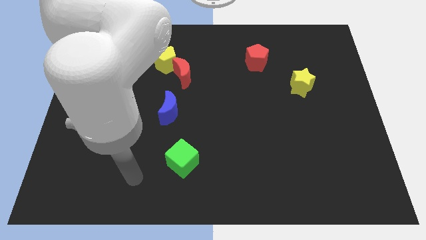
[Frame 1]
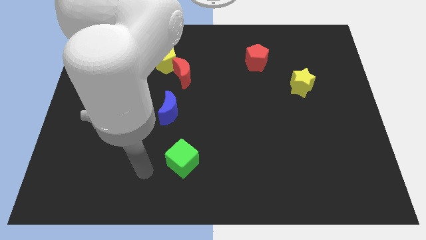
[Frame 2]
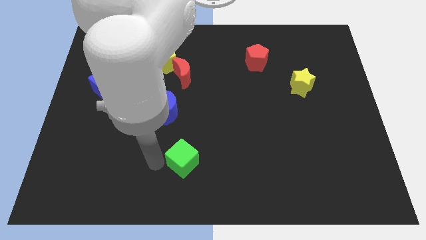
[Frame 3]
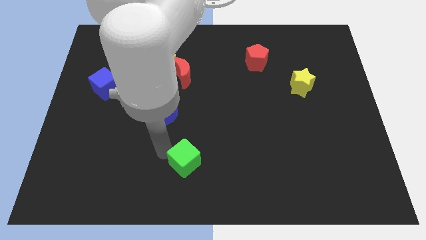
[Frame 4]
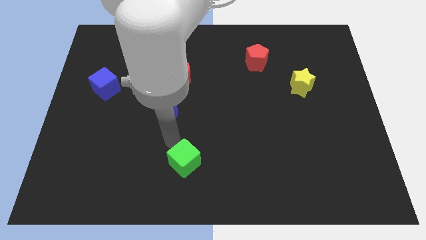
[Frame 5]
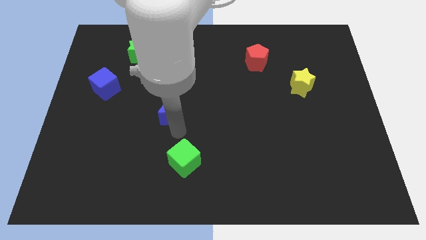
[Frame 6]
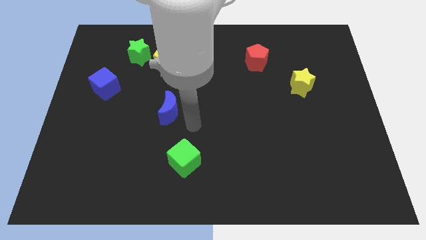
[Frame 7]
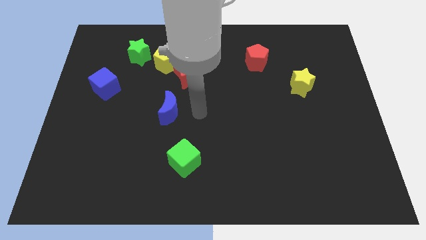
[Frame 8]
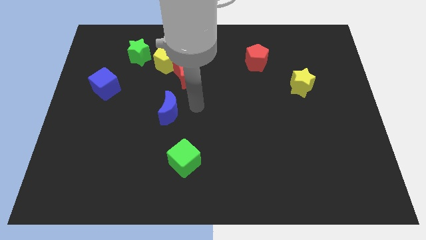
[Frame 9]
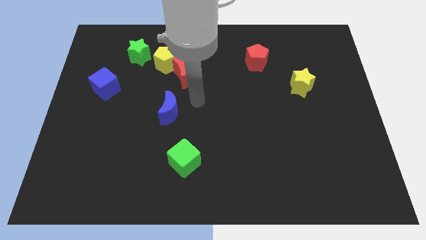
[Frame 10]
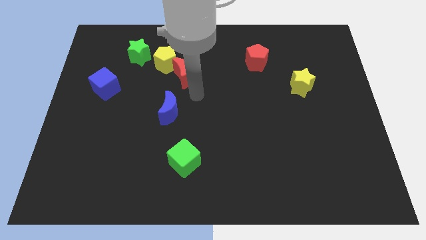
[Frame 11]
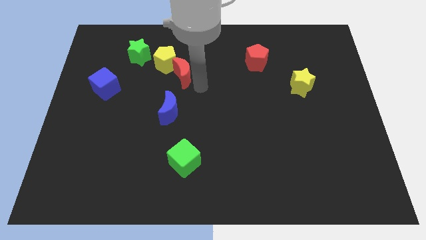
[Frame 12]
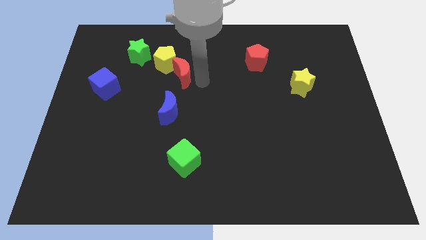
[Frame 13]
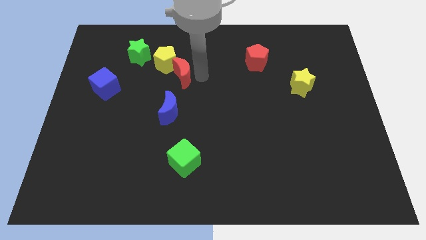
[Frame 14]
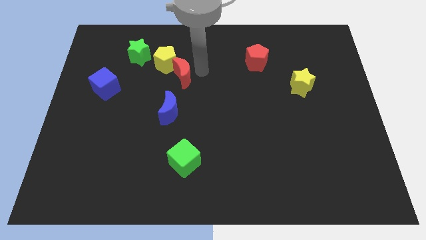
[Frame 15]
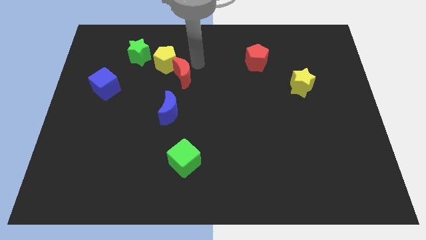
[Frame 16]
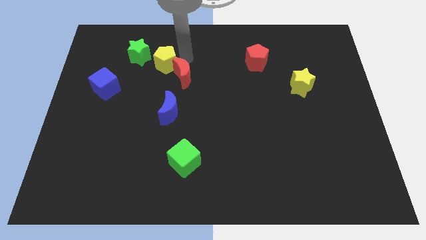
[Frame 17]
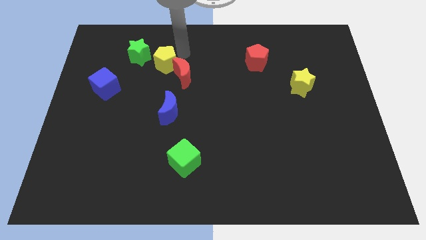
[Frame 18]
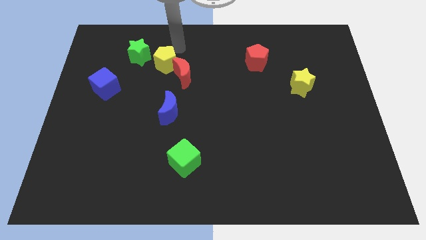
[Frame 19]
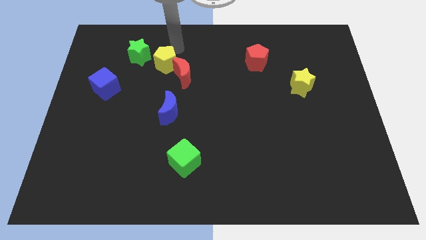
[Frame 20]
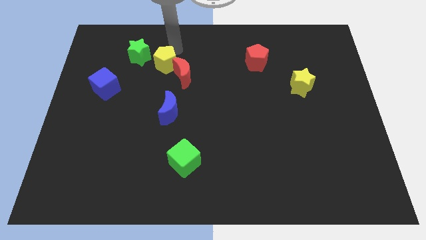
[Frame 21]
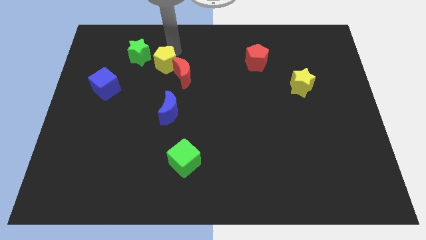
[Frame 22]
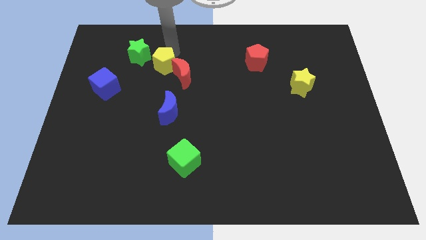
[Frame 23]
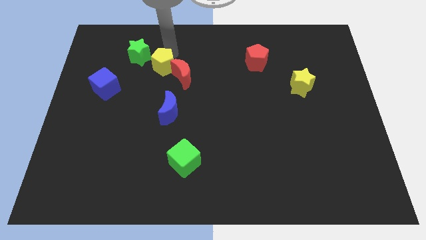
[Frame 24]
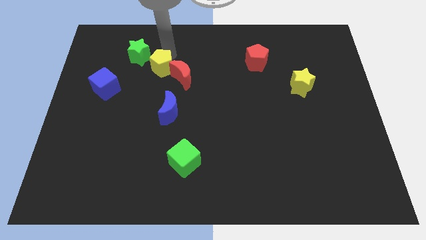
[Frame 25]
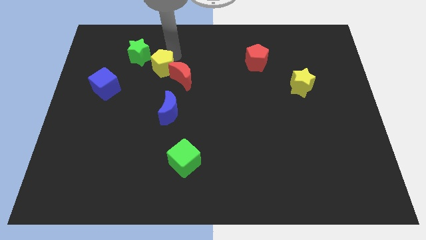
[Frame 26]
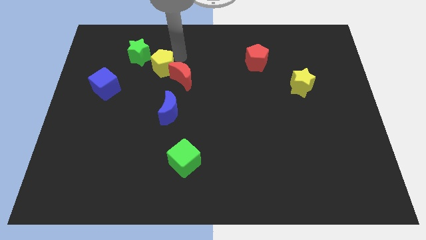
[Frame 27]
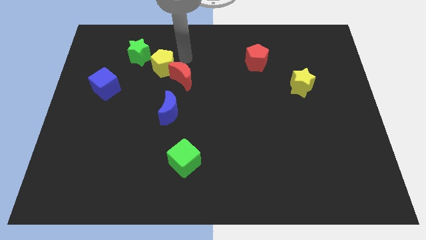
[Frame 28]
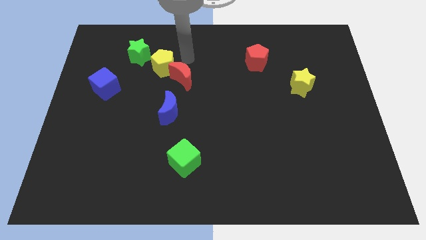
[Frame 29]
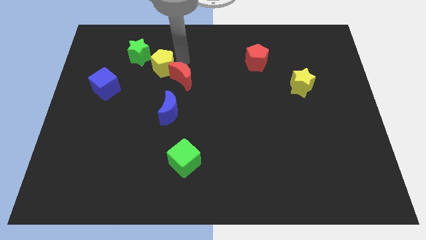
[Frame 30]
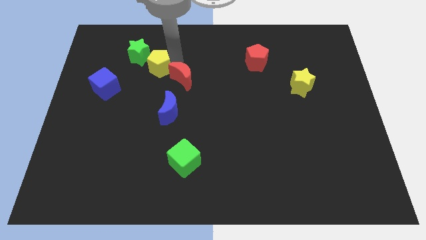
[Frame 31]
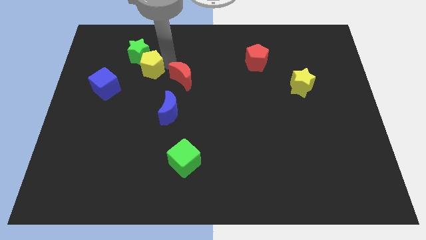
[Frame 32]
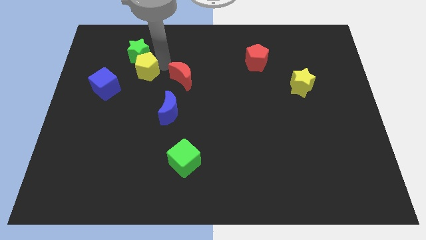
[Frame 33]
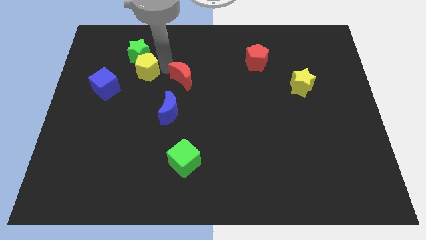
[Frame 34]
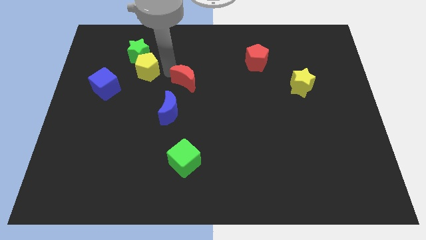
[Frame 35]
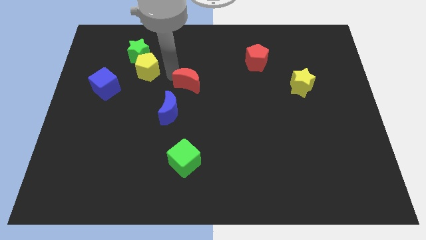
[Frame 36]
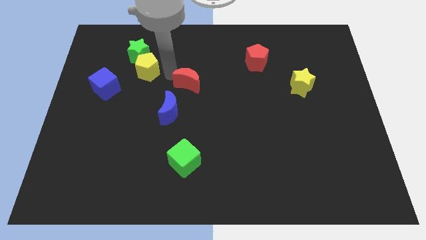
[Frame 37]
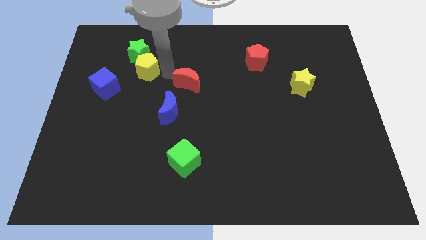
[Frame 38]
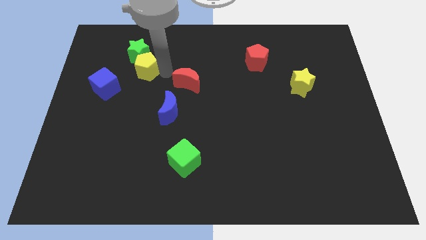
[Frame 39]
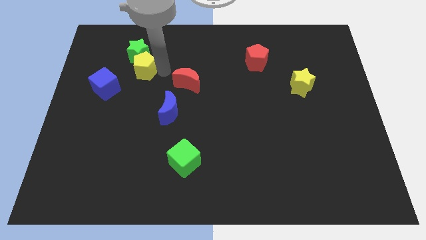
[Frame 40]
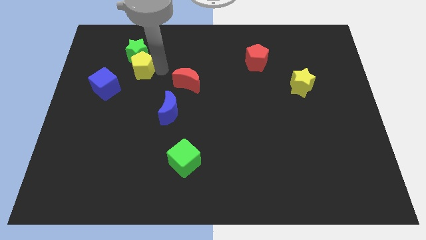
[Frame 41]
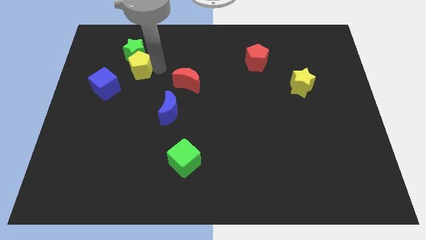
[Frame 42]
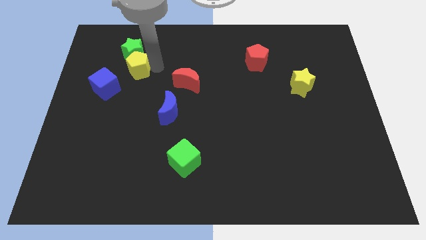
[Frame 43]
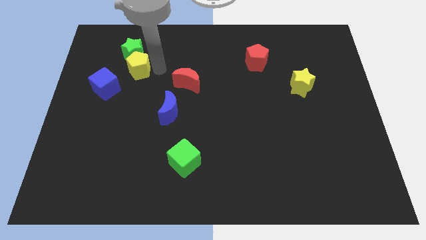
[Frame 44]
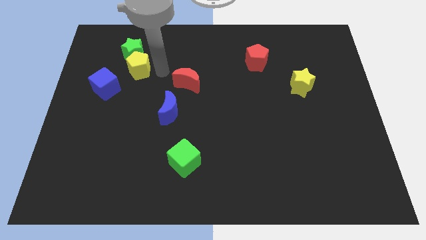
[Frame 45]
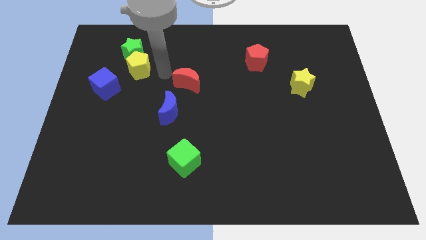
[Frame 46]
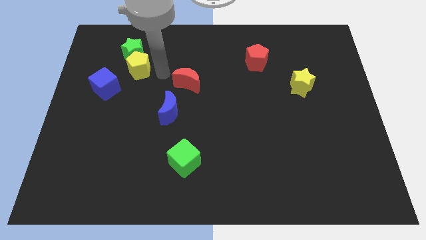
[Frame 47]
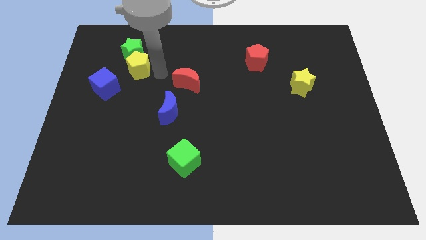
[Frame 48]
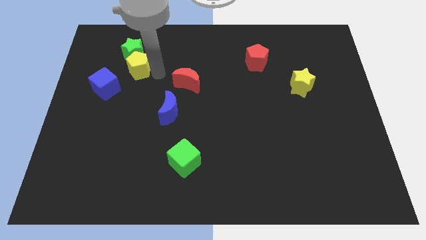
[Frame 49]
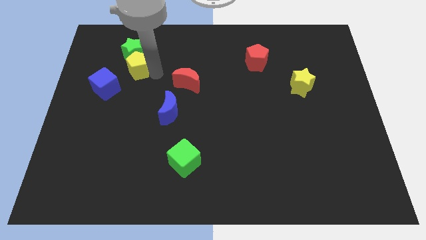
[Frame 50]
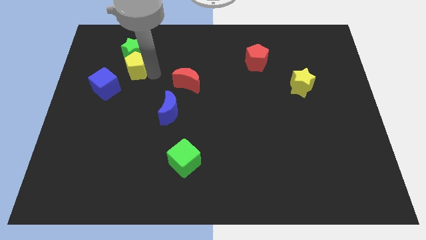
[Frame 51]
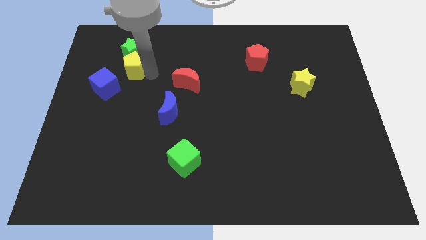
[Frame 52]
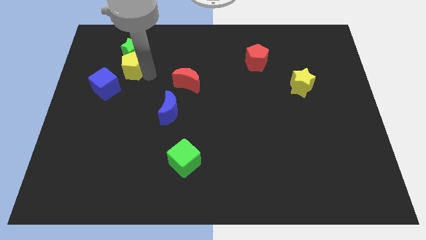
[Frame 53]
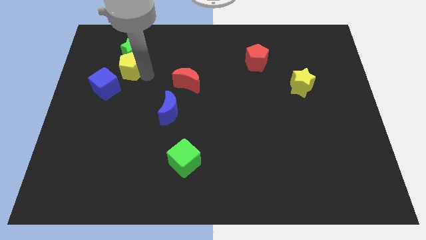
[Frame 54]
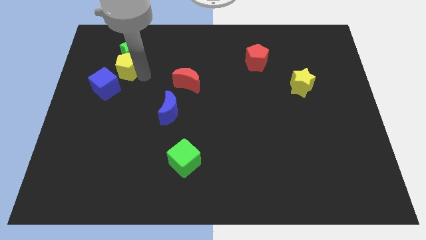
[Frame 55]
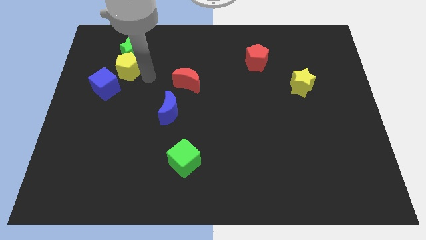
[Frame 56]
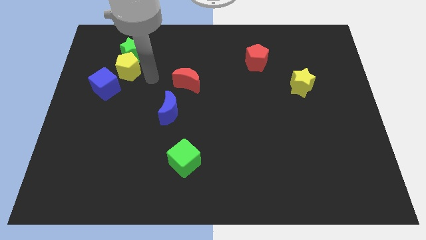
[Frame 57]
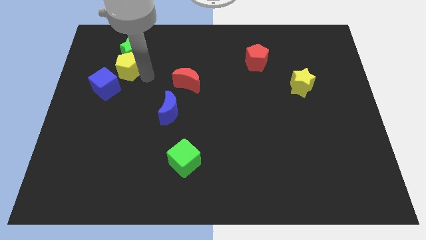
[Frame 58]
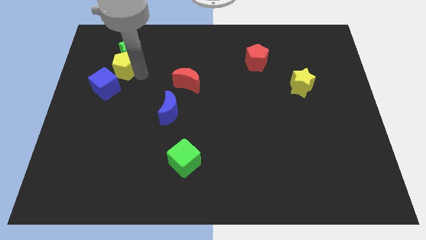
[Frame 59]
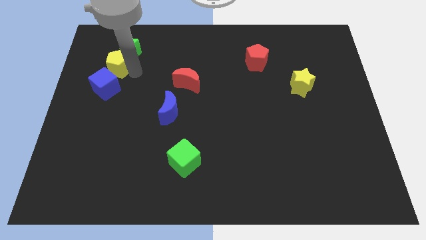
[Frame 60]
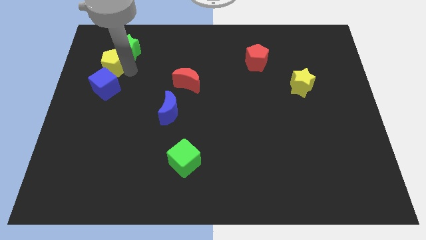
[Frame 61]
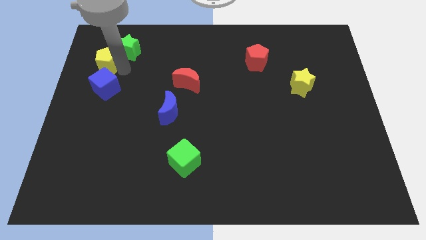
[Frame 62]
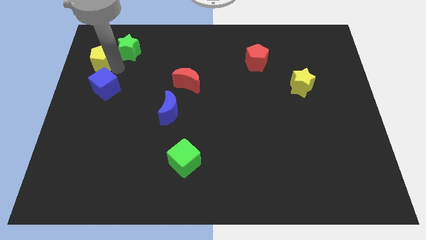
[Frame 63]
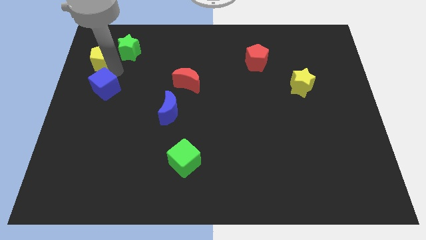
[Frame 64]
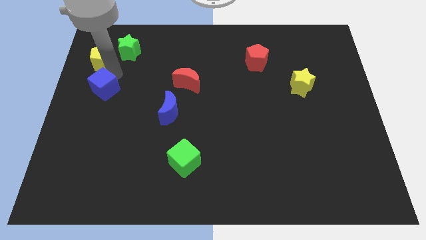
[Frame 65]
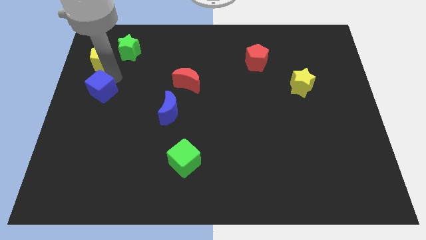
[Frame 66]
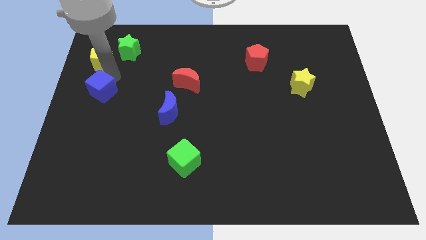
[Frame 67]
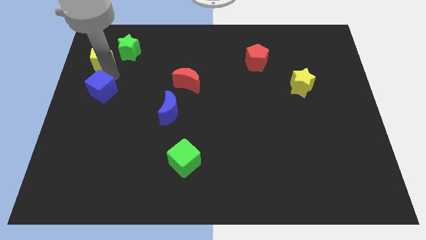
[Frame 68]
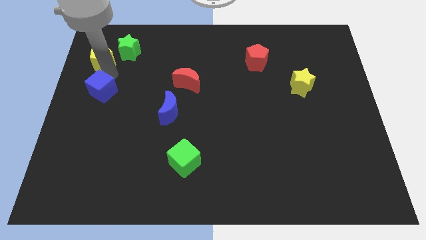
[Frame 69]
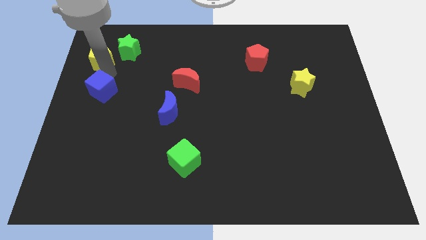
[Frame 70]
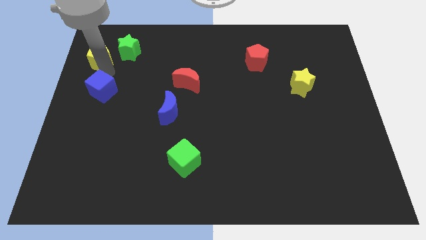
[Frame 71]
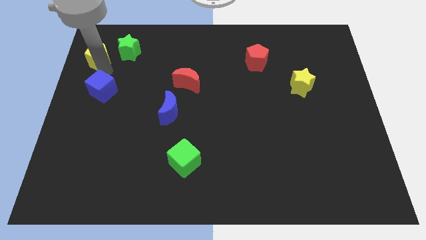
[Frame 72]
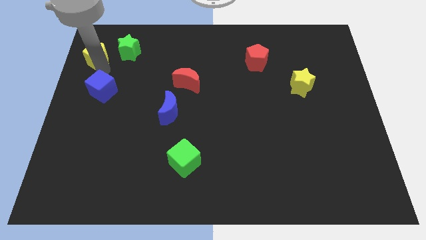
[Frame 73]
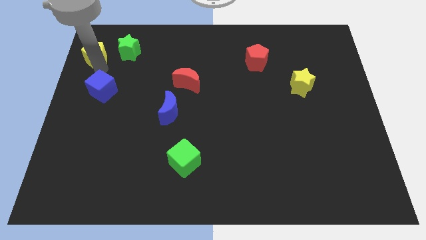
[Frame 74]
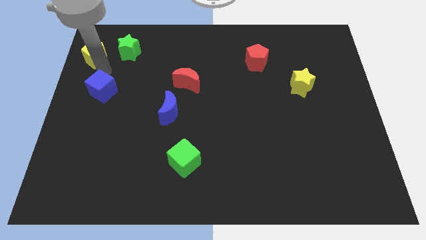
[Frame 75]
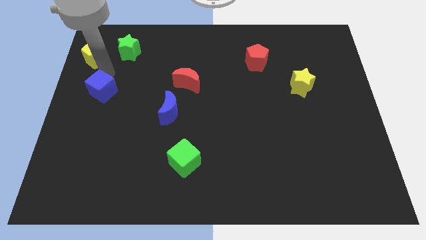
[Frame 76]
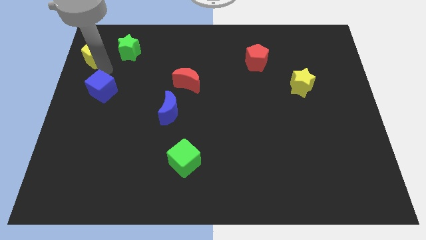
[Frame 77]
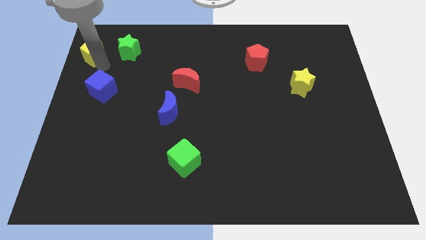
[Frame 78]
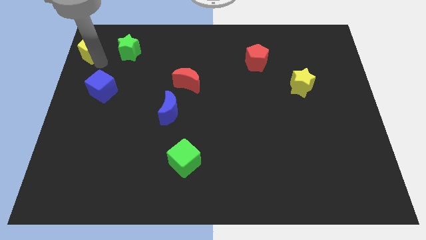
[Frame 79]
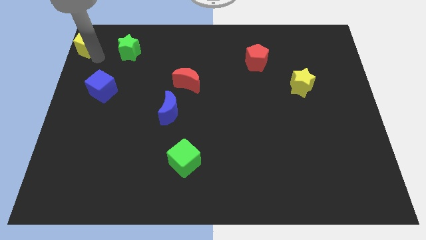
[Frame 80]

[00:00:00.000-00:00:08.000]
put the yellow pentagon to the upper left corner
